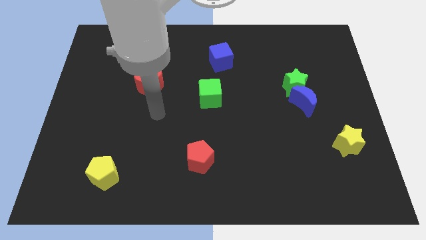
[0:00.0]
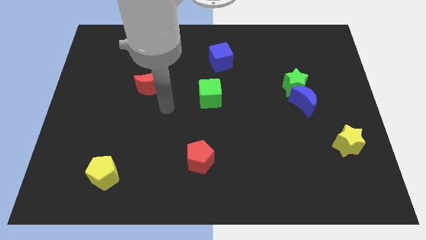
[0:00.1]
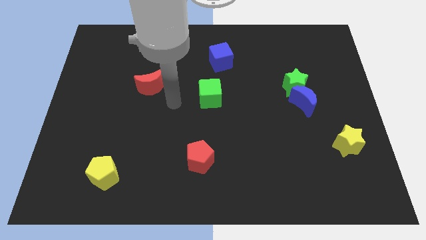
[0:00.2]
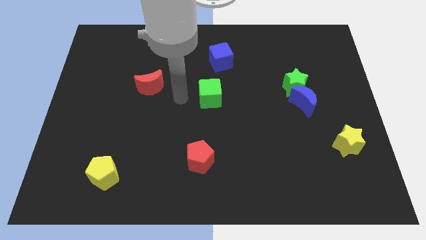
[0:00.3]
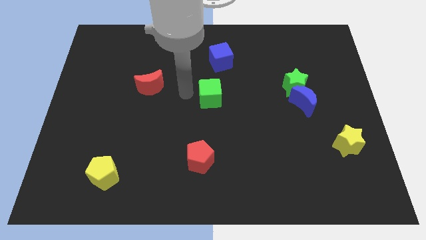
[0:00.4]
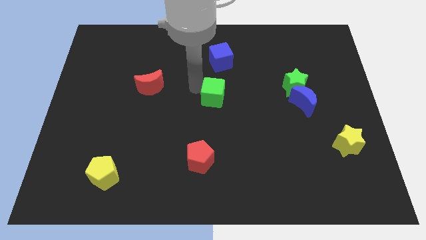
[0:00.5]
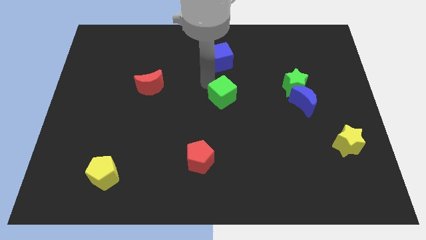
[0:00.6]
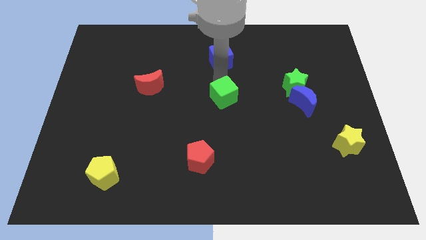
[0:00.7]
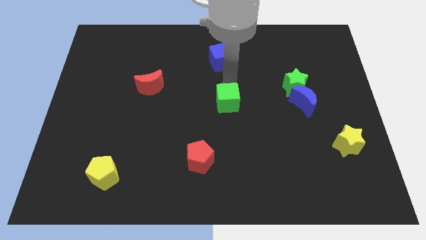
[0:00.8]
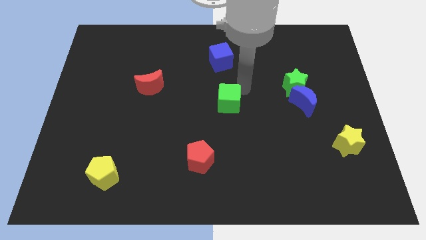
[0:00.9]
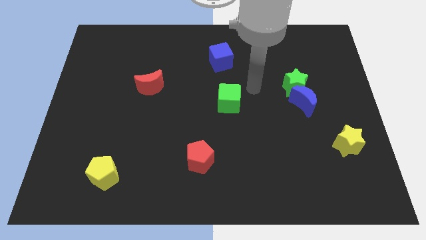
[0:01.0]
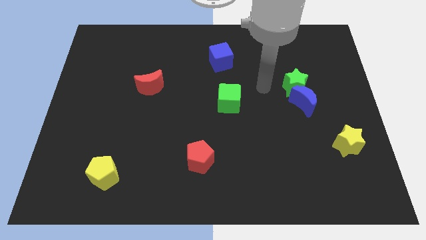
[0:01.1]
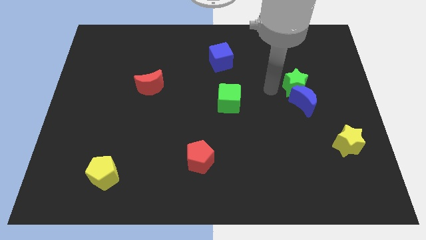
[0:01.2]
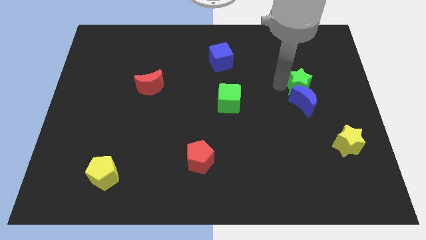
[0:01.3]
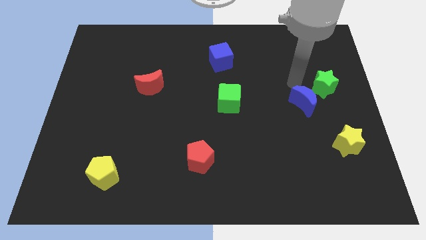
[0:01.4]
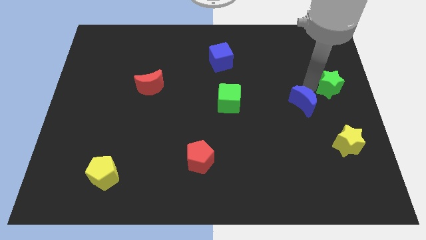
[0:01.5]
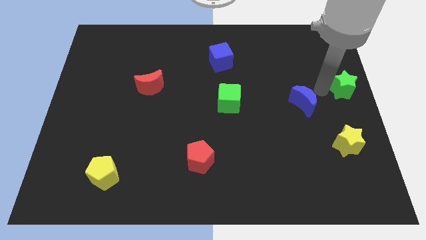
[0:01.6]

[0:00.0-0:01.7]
move the blue moon away from the green star

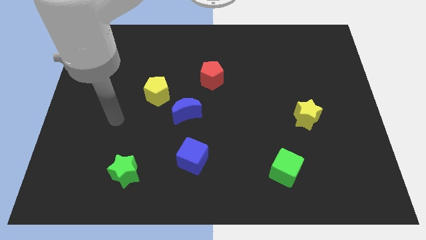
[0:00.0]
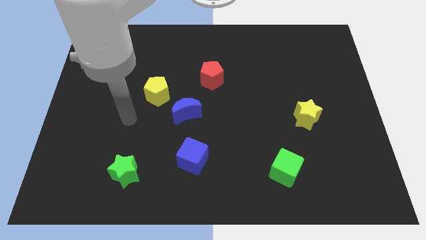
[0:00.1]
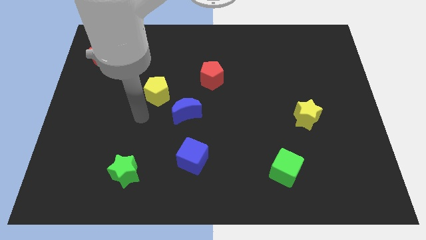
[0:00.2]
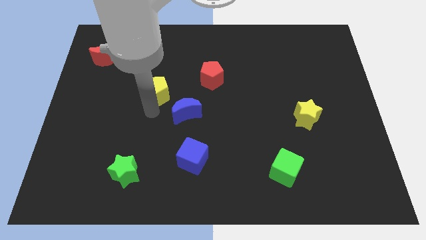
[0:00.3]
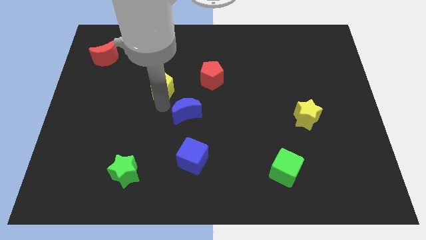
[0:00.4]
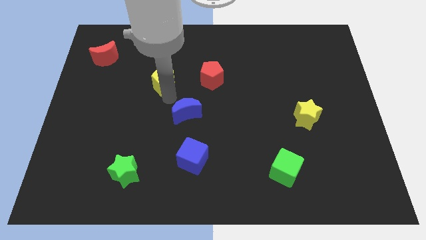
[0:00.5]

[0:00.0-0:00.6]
move the blue moon away from the yellow pentagon

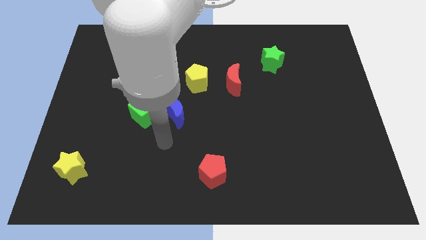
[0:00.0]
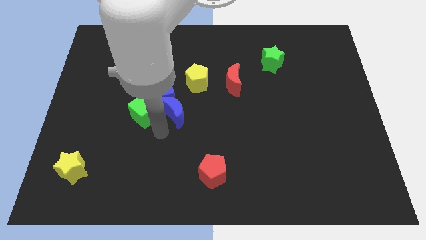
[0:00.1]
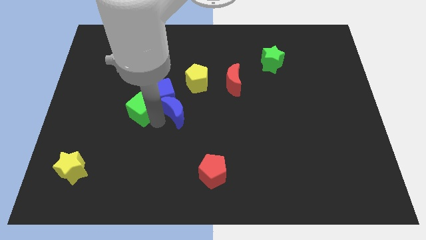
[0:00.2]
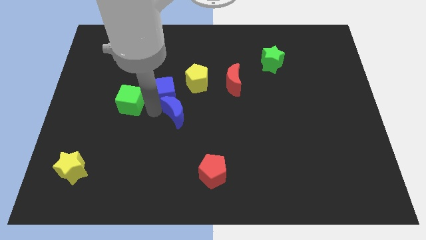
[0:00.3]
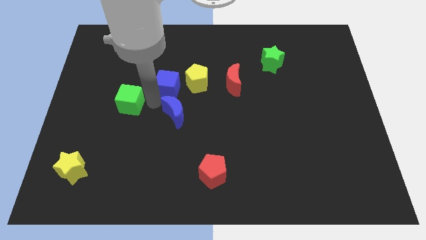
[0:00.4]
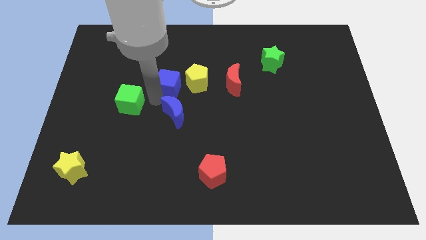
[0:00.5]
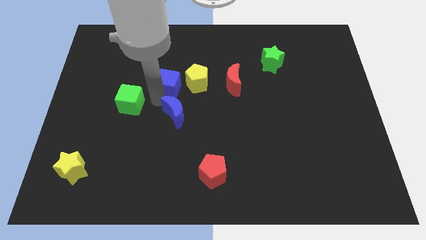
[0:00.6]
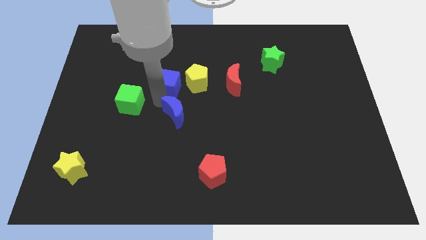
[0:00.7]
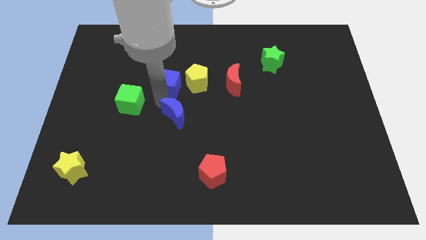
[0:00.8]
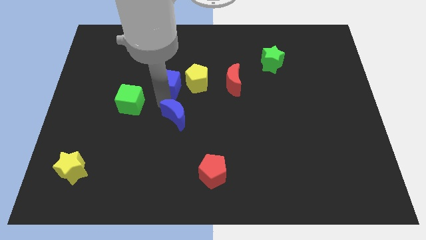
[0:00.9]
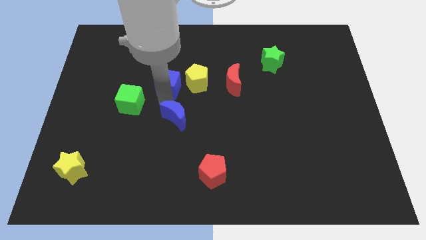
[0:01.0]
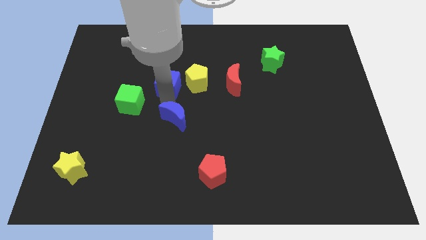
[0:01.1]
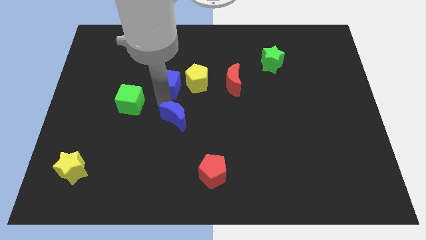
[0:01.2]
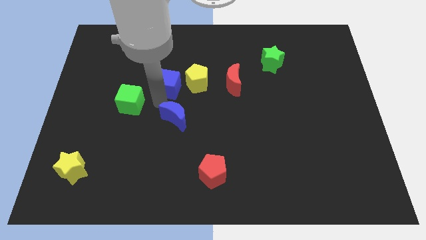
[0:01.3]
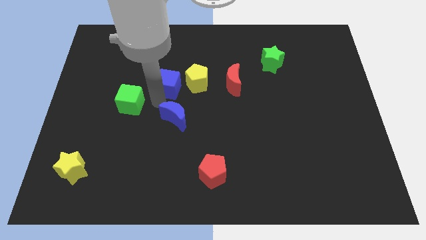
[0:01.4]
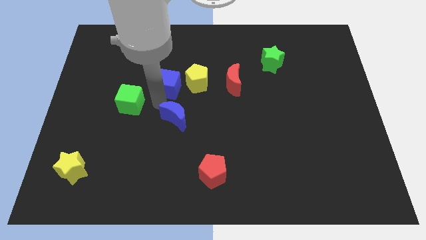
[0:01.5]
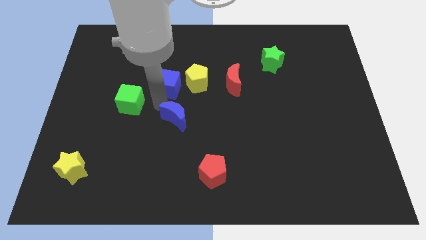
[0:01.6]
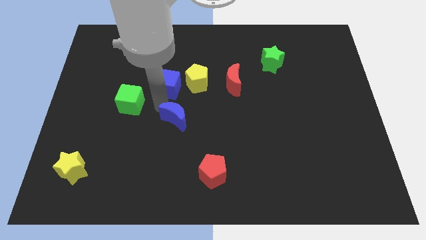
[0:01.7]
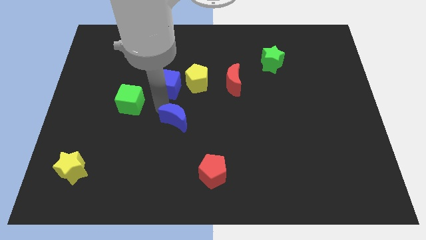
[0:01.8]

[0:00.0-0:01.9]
separate the blue moon from the blue cube and green cube

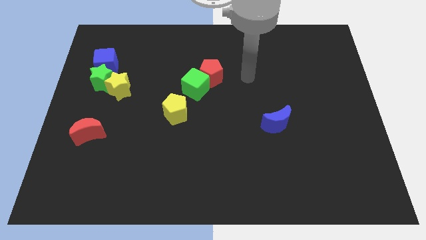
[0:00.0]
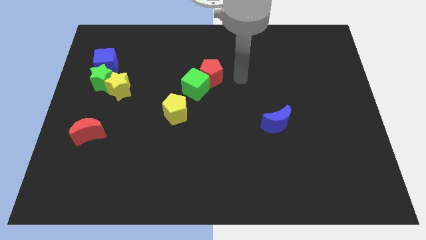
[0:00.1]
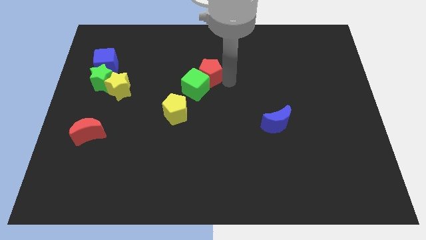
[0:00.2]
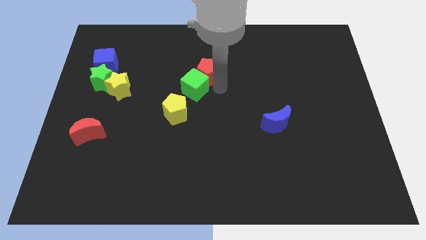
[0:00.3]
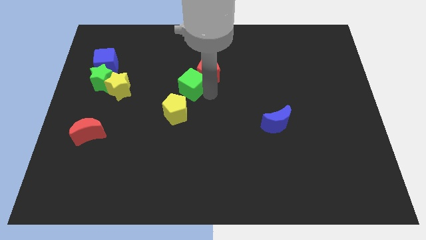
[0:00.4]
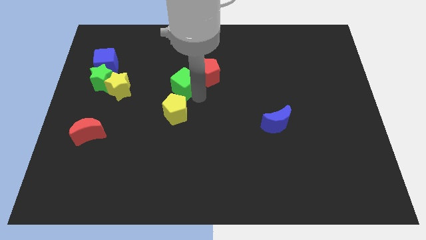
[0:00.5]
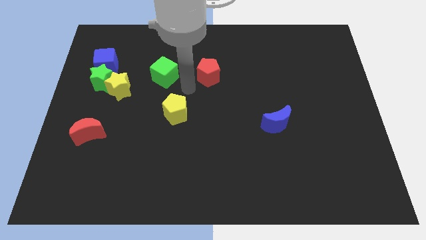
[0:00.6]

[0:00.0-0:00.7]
pull the red pentagon apart from the green cube

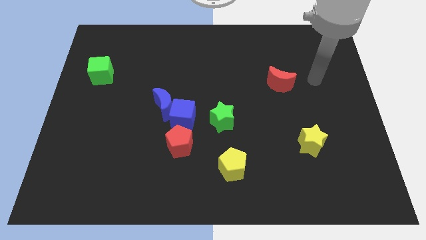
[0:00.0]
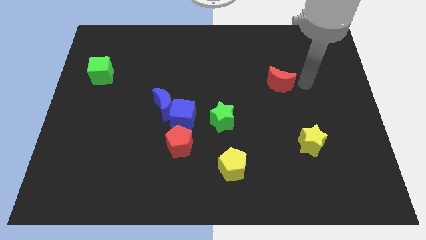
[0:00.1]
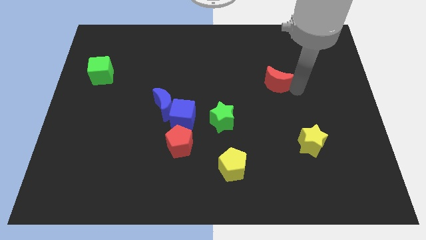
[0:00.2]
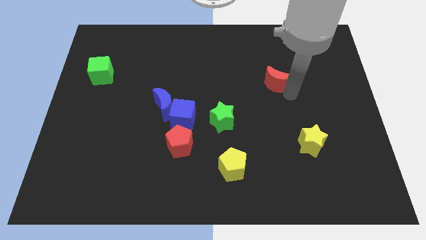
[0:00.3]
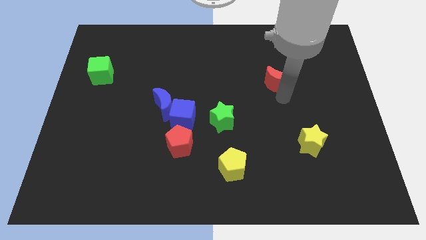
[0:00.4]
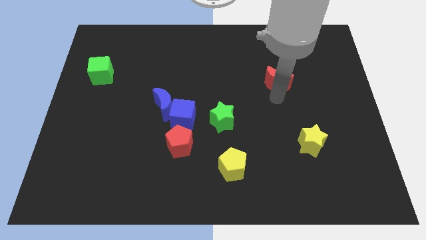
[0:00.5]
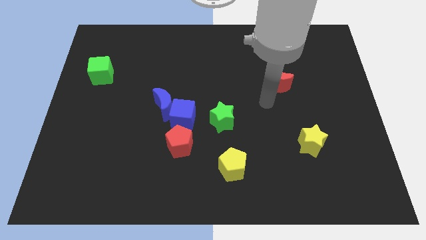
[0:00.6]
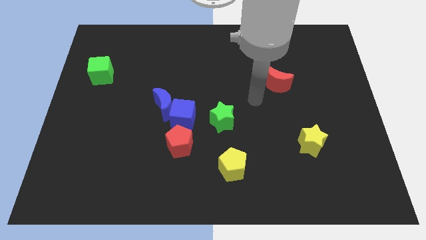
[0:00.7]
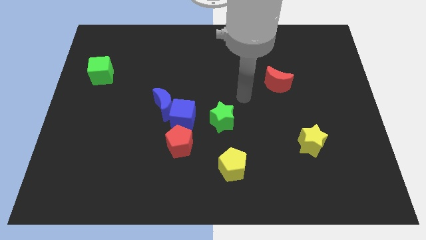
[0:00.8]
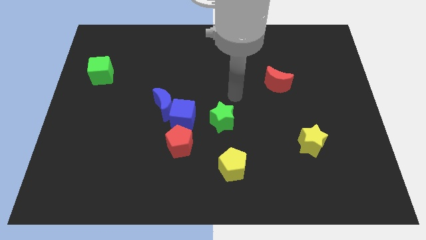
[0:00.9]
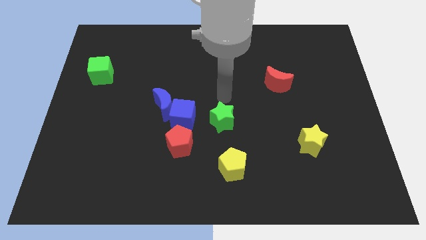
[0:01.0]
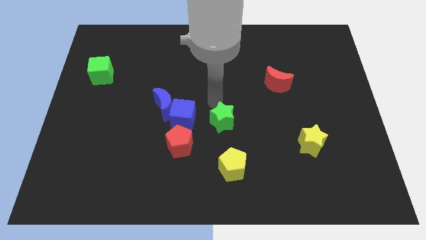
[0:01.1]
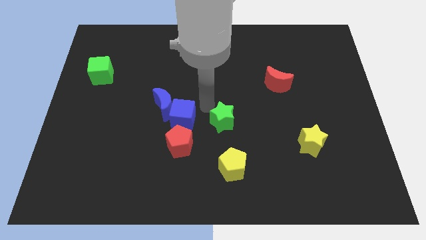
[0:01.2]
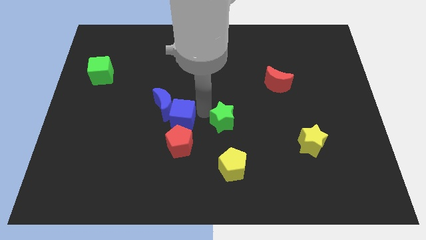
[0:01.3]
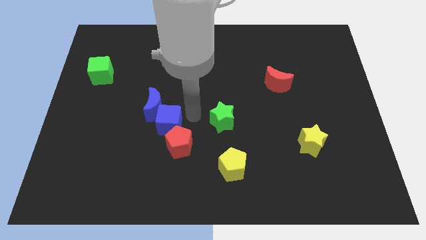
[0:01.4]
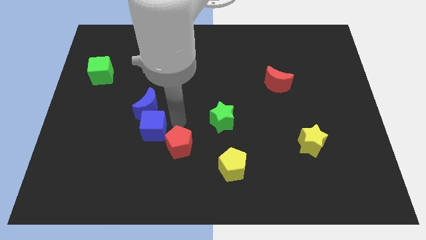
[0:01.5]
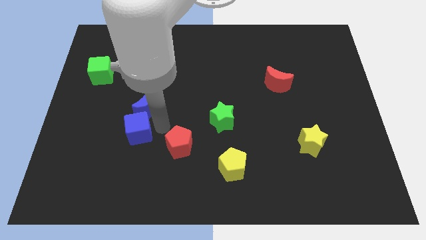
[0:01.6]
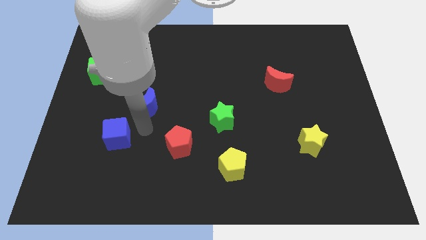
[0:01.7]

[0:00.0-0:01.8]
separate the blue moon from the blue cube

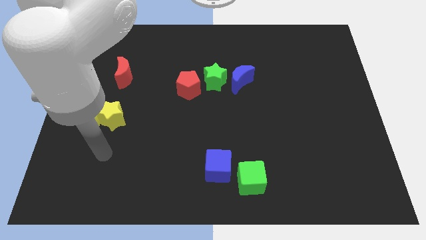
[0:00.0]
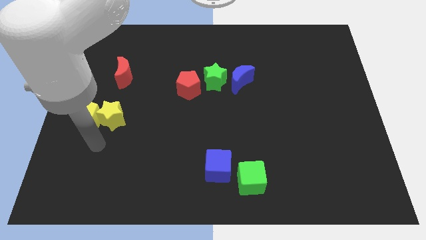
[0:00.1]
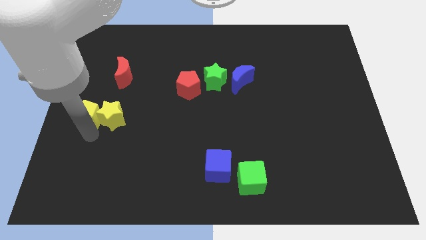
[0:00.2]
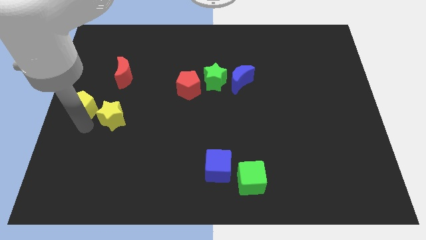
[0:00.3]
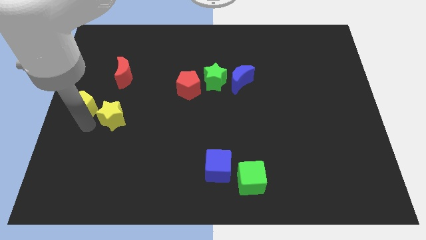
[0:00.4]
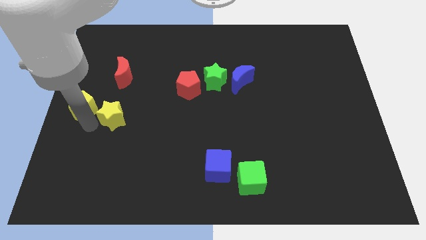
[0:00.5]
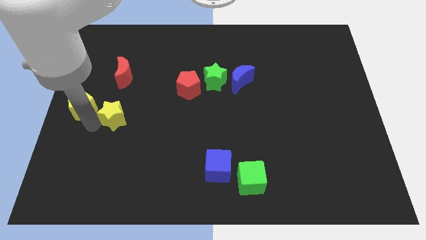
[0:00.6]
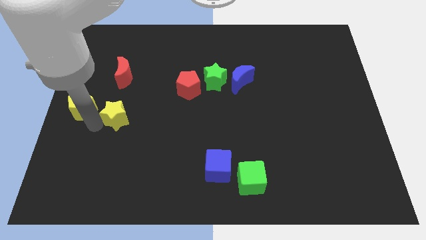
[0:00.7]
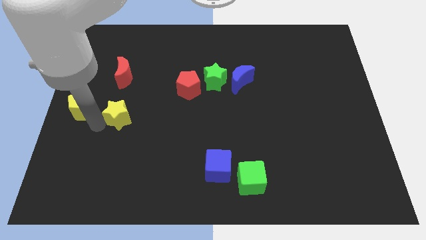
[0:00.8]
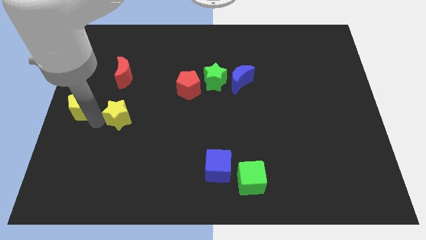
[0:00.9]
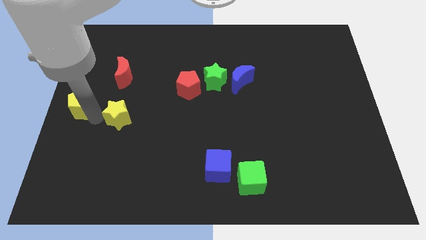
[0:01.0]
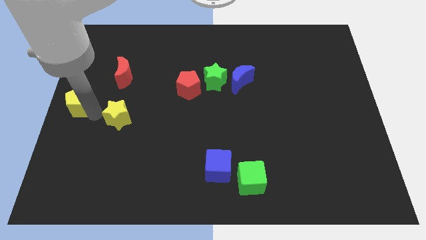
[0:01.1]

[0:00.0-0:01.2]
move the yellow star away from the yellow pentagon

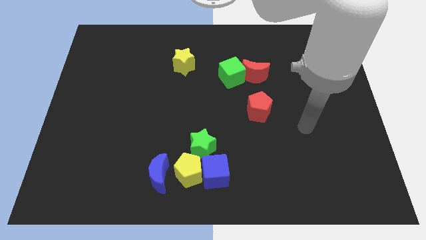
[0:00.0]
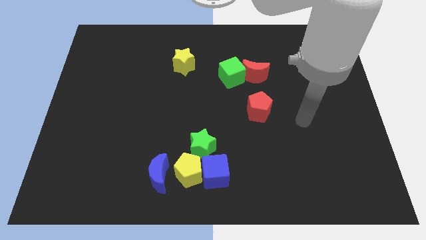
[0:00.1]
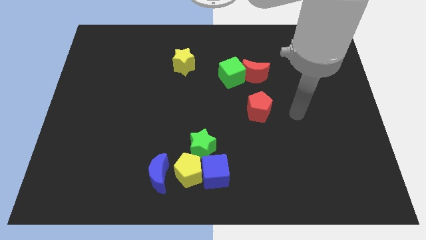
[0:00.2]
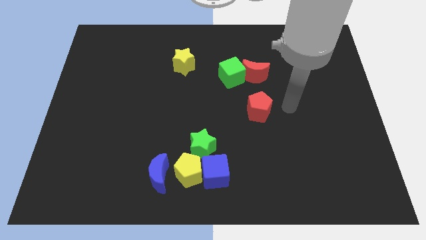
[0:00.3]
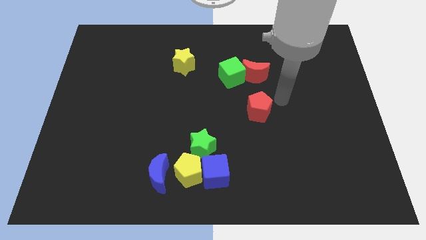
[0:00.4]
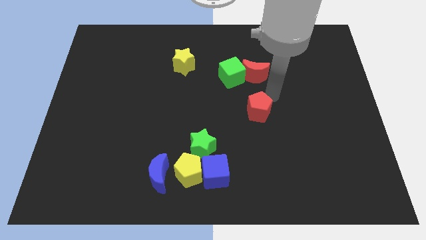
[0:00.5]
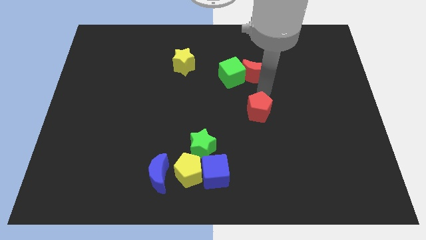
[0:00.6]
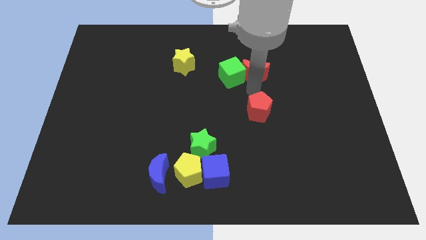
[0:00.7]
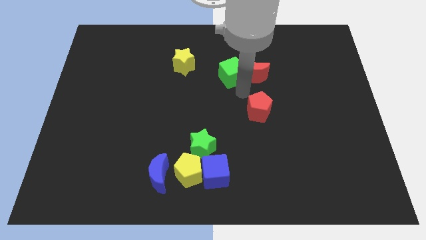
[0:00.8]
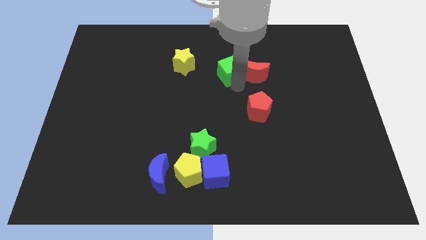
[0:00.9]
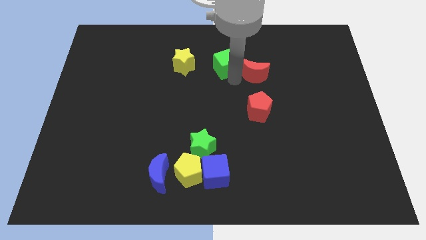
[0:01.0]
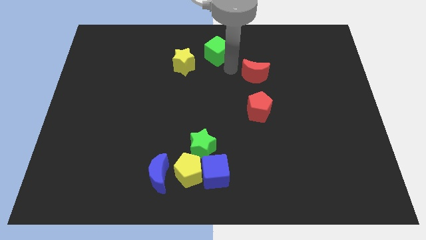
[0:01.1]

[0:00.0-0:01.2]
move the red moon away from the green cube

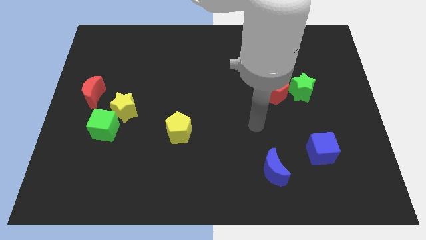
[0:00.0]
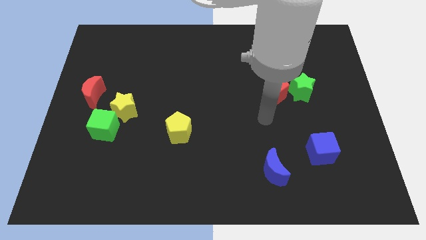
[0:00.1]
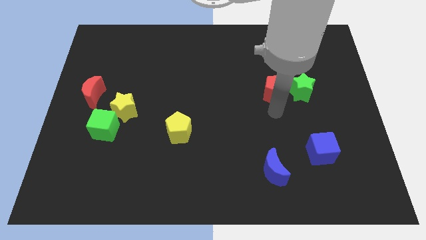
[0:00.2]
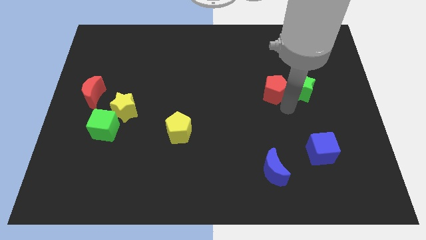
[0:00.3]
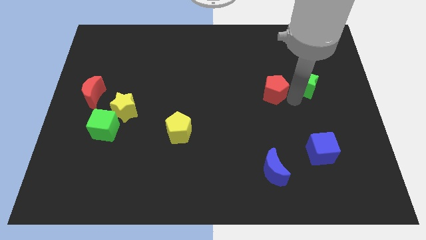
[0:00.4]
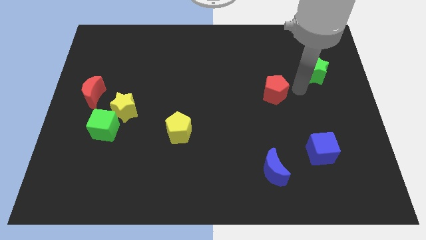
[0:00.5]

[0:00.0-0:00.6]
pull the red pentagon apart from the green star
